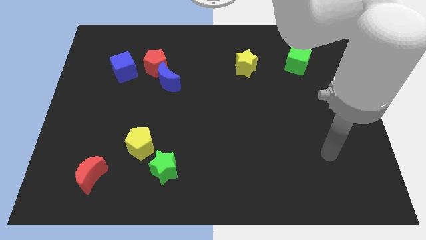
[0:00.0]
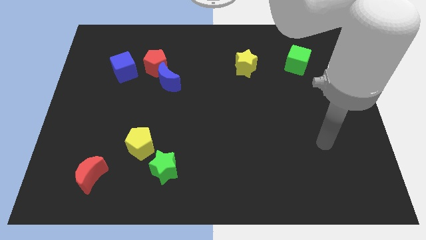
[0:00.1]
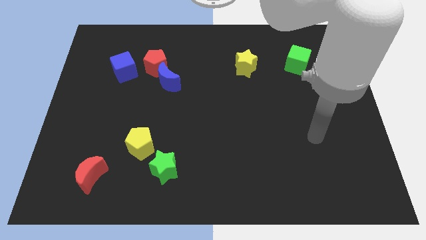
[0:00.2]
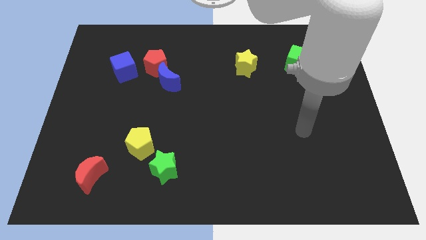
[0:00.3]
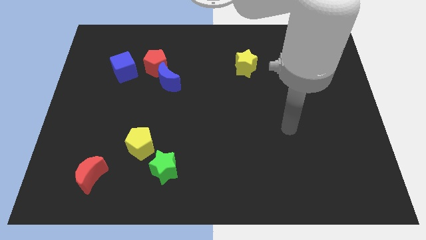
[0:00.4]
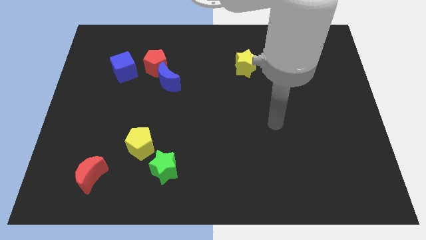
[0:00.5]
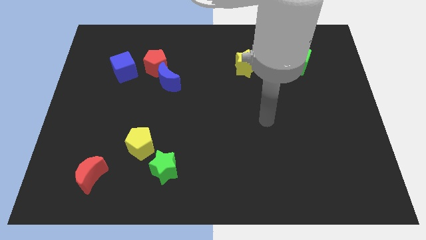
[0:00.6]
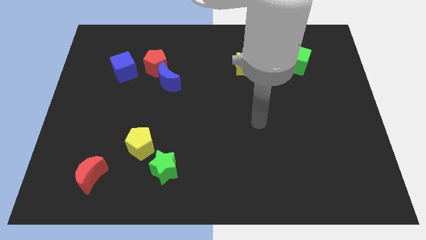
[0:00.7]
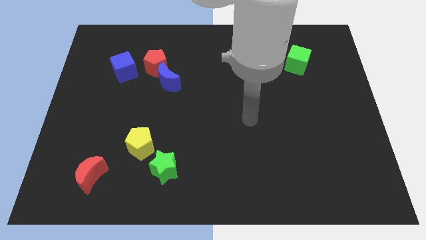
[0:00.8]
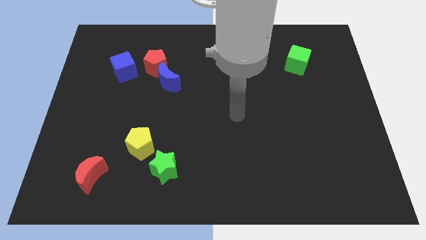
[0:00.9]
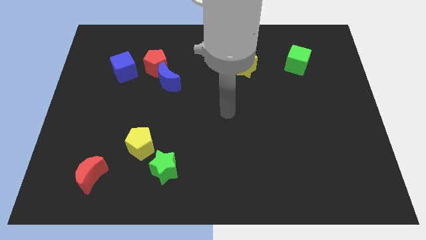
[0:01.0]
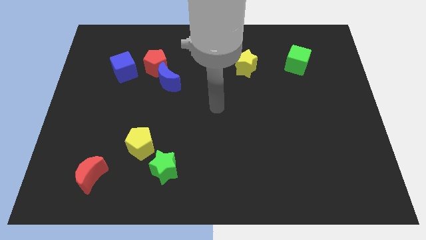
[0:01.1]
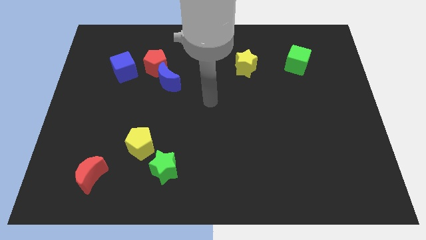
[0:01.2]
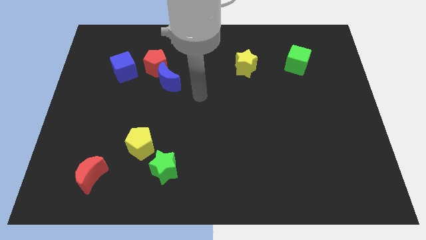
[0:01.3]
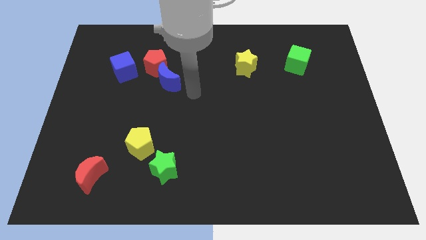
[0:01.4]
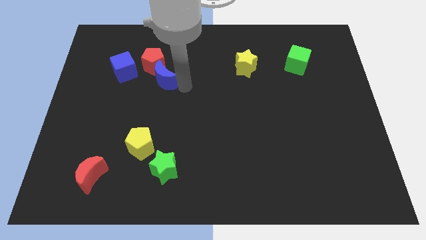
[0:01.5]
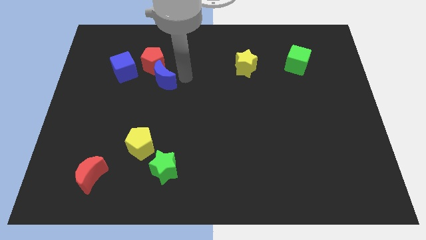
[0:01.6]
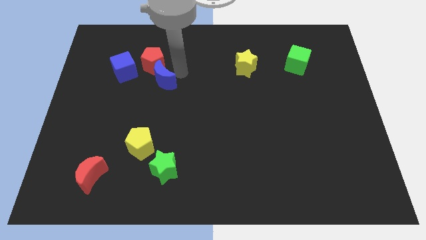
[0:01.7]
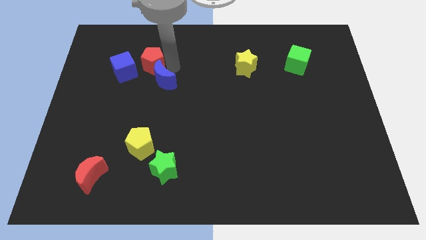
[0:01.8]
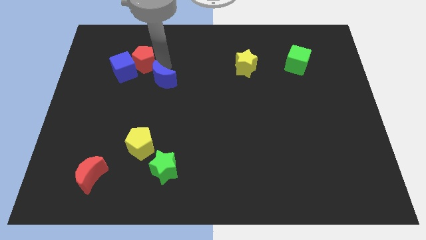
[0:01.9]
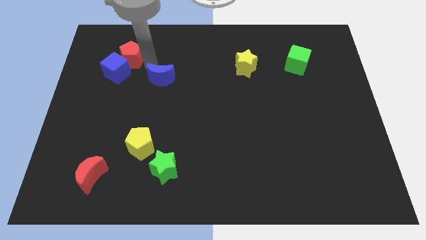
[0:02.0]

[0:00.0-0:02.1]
separate the blue moon from the red pentagon

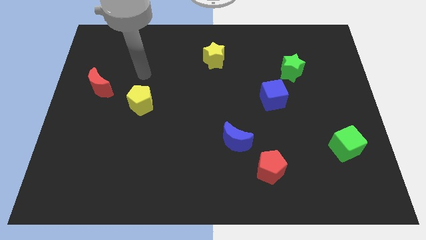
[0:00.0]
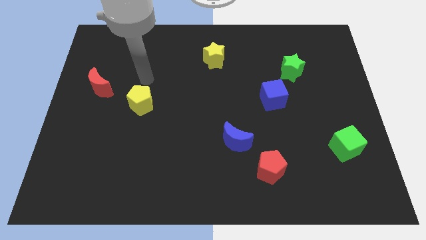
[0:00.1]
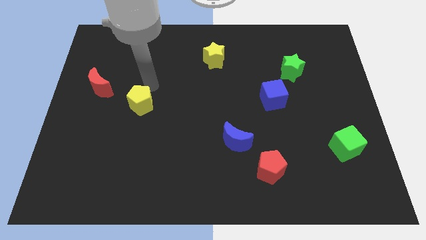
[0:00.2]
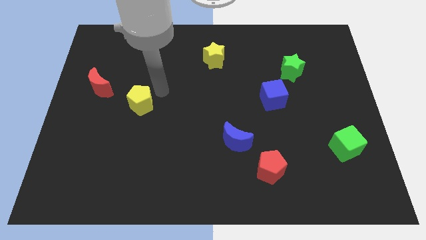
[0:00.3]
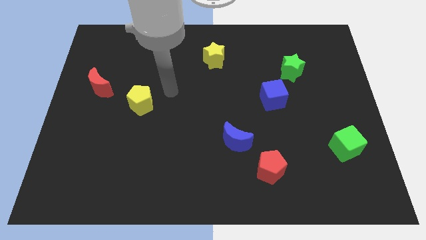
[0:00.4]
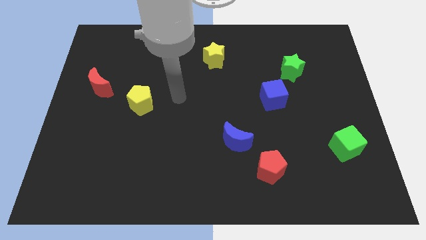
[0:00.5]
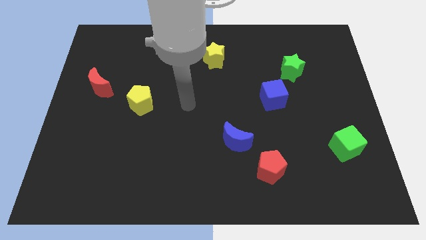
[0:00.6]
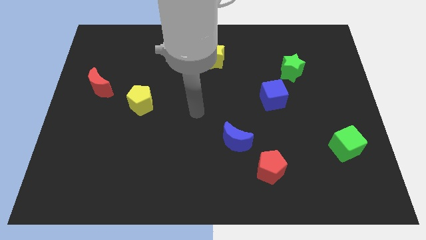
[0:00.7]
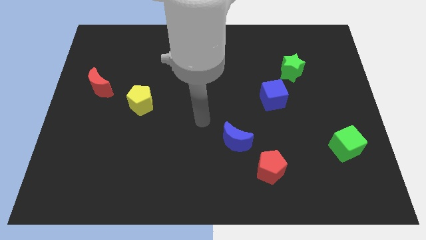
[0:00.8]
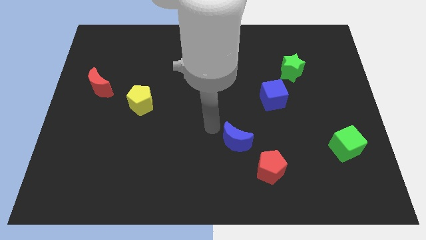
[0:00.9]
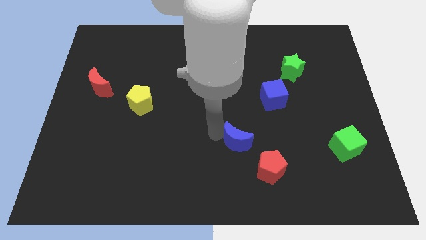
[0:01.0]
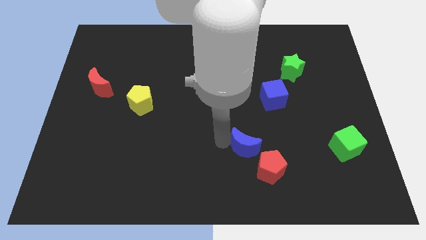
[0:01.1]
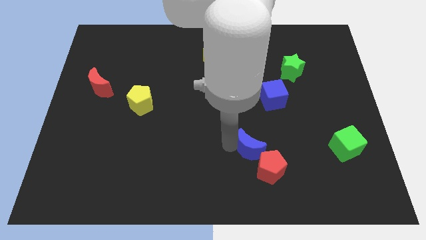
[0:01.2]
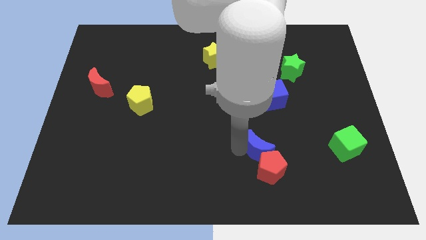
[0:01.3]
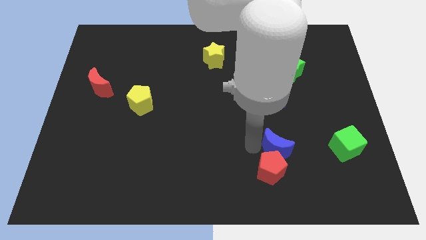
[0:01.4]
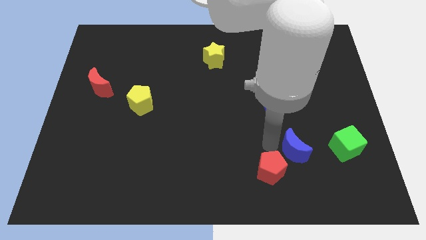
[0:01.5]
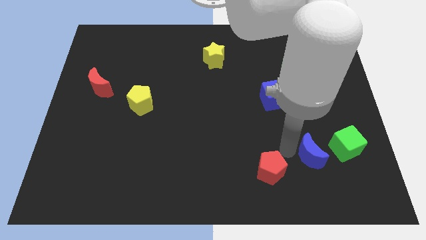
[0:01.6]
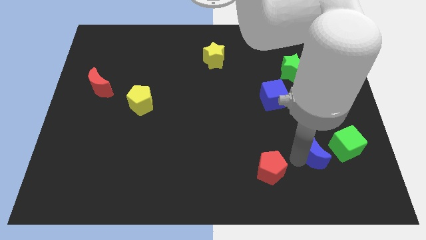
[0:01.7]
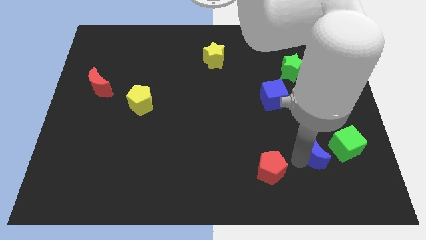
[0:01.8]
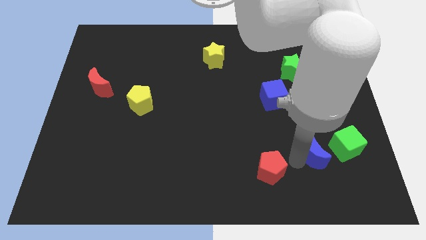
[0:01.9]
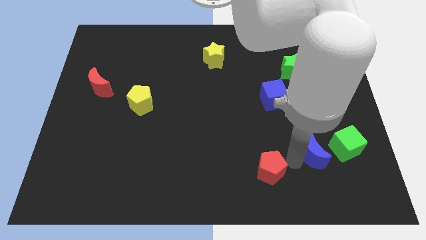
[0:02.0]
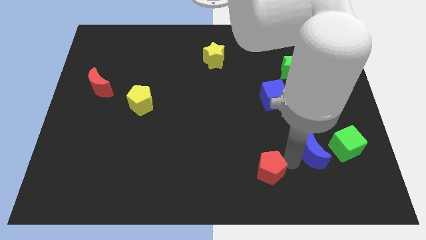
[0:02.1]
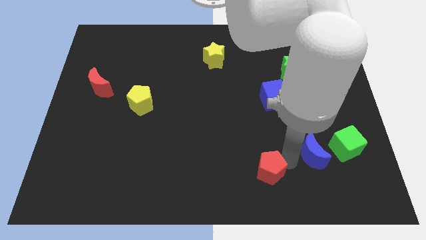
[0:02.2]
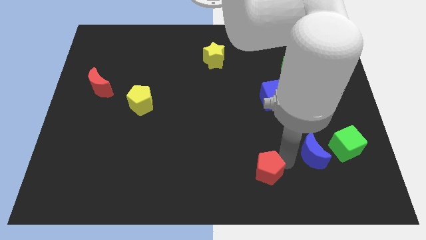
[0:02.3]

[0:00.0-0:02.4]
separate the red pentagon from the blue moon

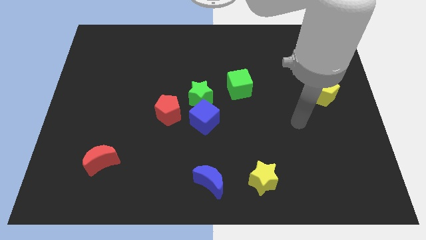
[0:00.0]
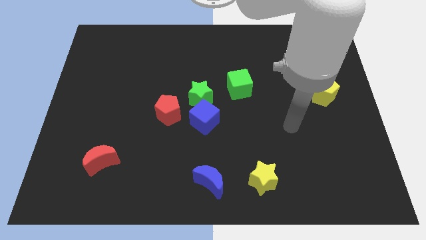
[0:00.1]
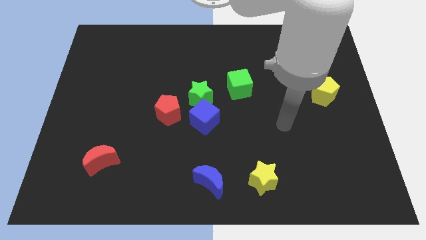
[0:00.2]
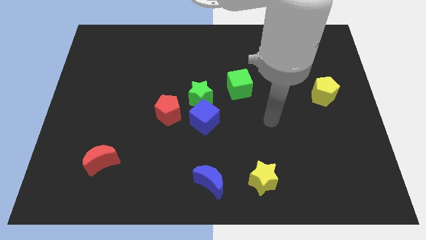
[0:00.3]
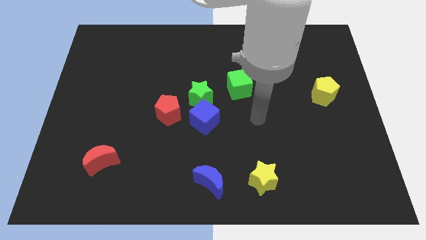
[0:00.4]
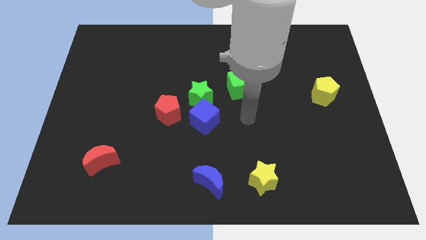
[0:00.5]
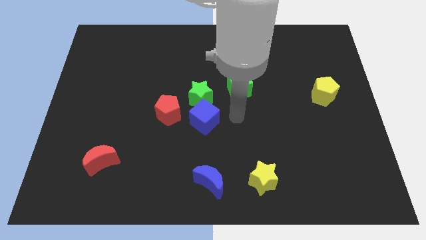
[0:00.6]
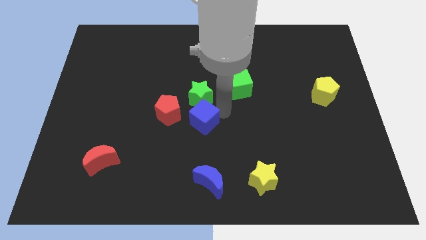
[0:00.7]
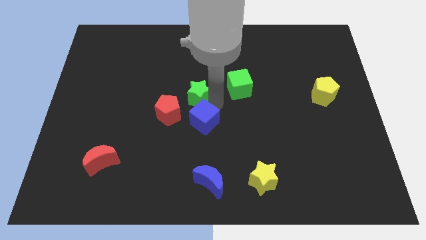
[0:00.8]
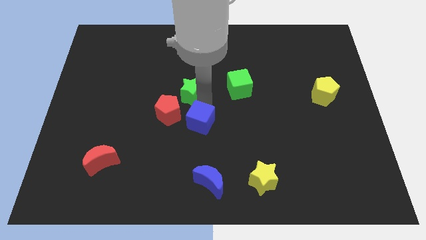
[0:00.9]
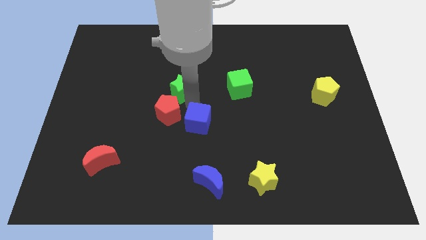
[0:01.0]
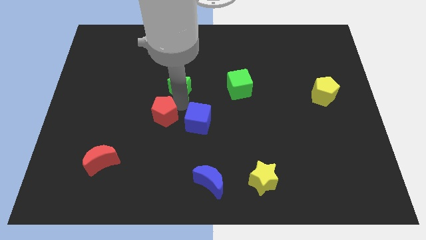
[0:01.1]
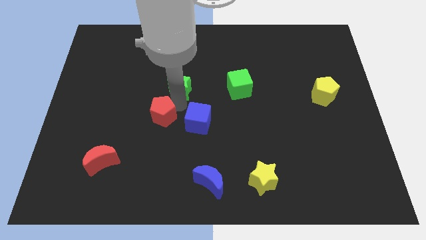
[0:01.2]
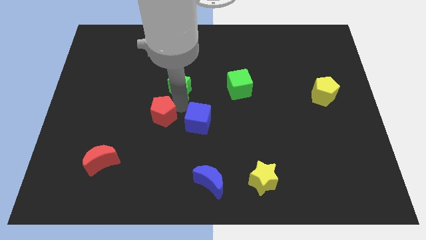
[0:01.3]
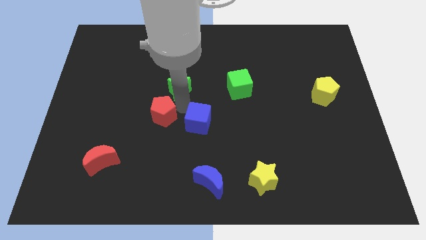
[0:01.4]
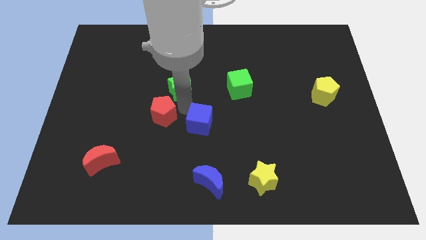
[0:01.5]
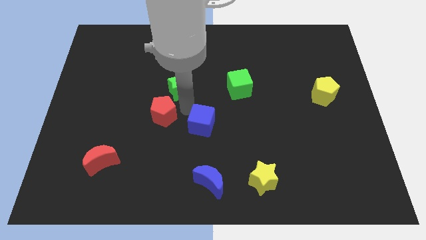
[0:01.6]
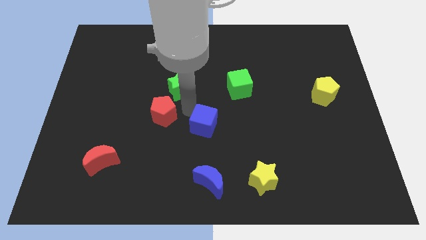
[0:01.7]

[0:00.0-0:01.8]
pull the blue cube apart from the green star and red pentagon

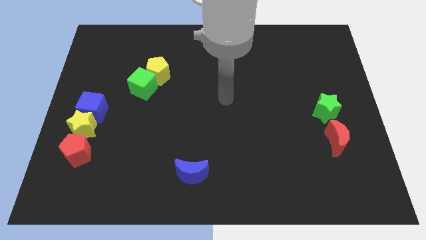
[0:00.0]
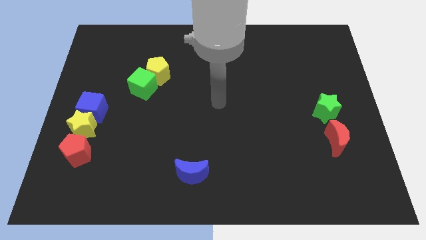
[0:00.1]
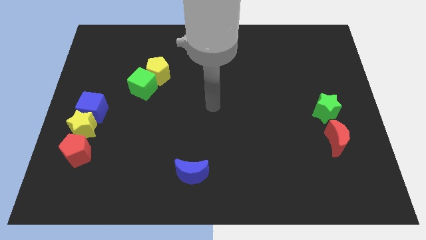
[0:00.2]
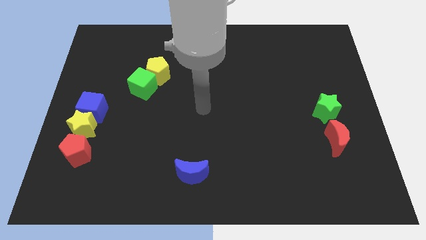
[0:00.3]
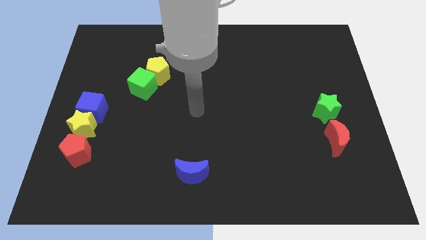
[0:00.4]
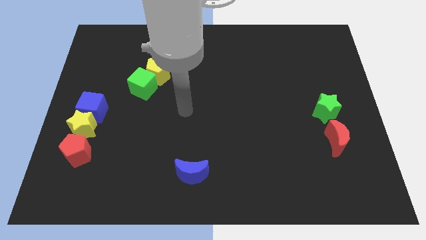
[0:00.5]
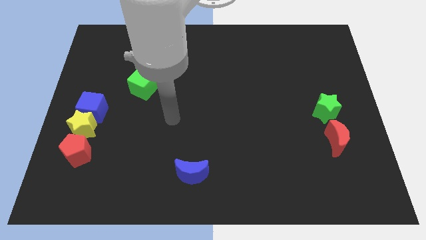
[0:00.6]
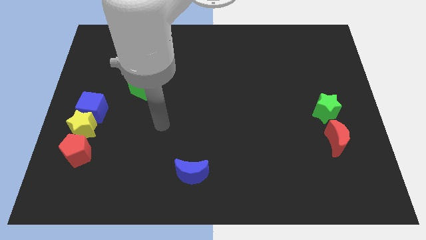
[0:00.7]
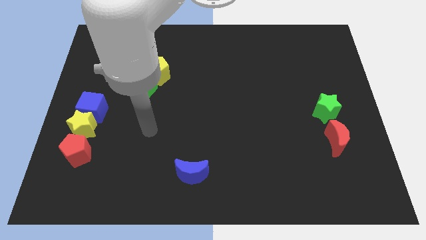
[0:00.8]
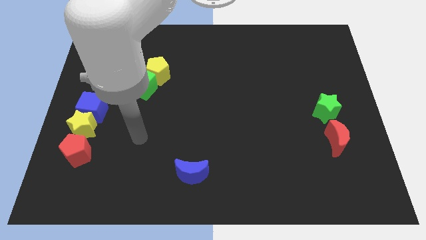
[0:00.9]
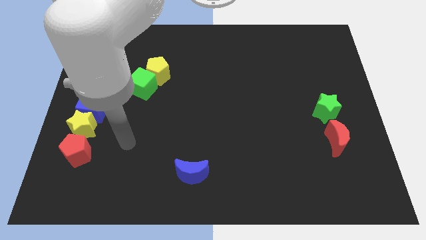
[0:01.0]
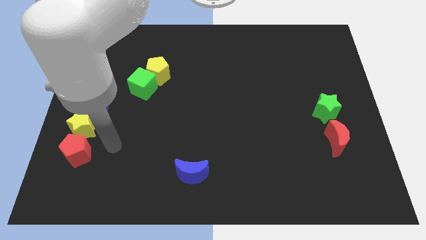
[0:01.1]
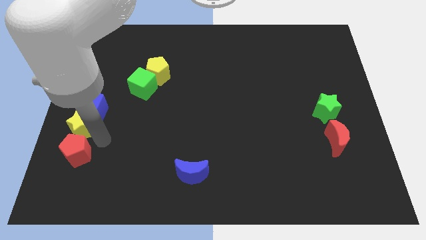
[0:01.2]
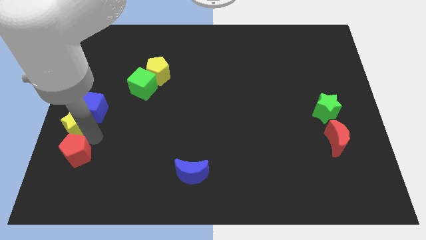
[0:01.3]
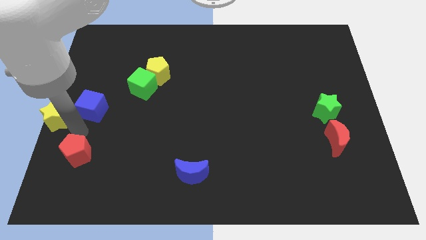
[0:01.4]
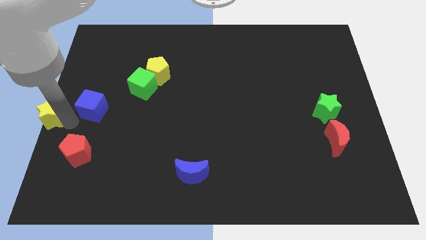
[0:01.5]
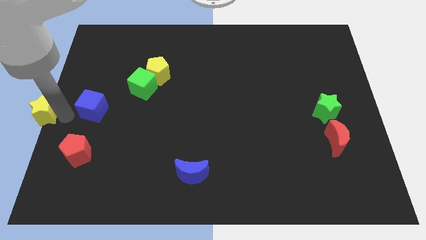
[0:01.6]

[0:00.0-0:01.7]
pull the blue cube apart from the yellow star

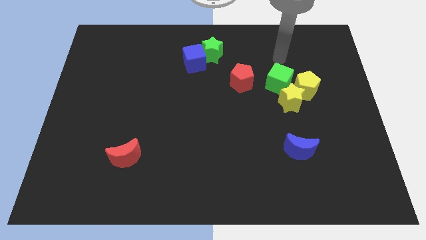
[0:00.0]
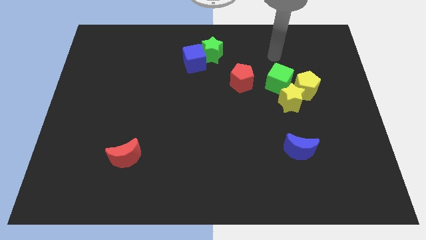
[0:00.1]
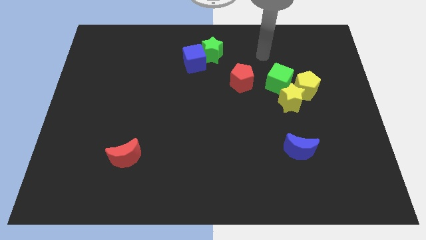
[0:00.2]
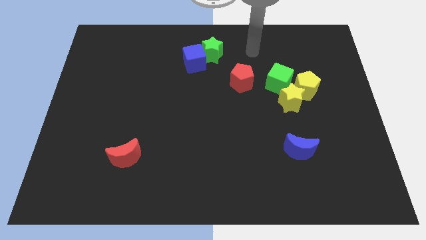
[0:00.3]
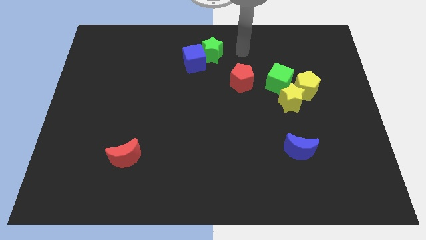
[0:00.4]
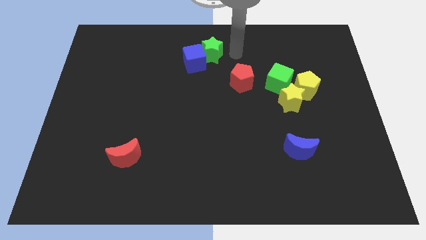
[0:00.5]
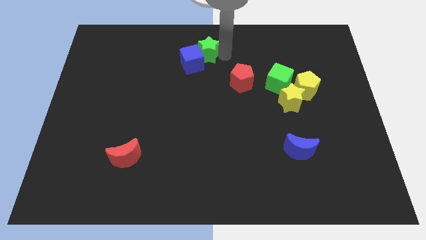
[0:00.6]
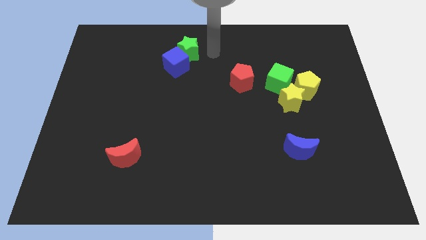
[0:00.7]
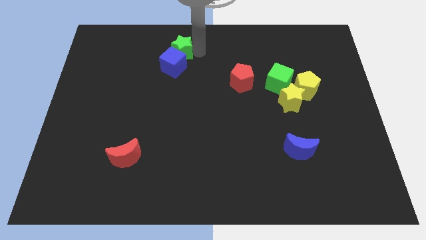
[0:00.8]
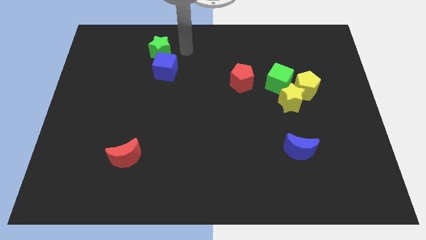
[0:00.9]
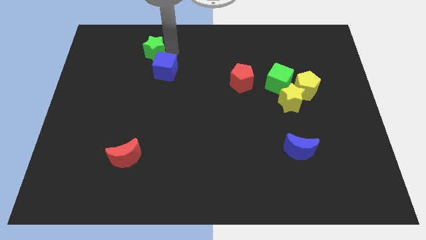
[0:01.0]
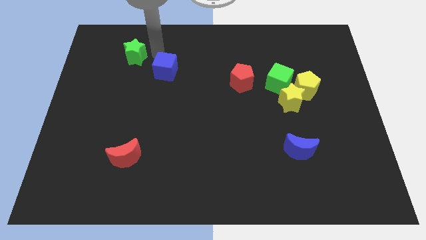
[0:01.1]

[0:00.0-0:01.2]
pull the blue cube apart from the green star
